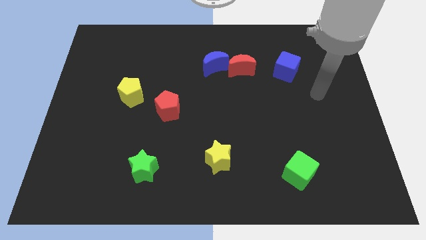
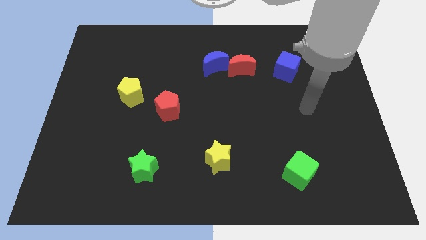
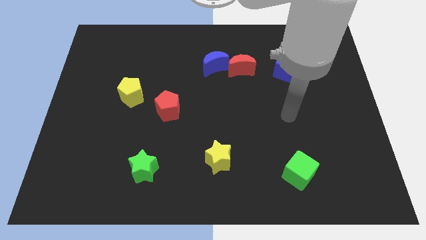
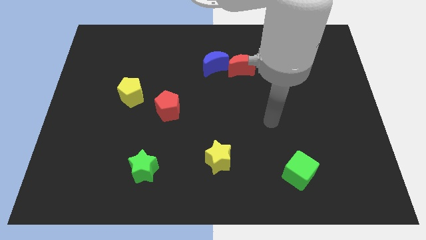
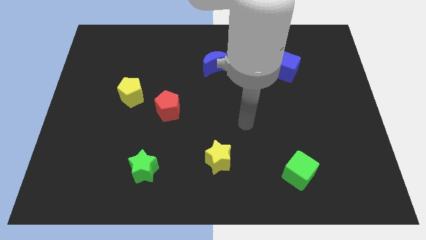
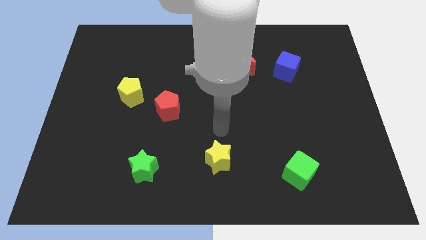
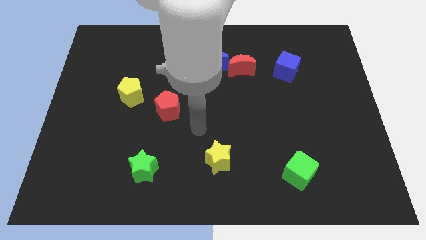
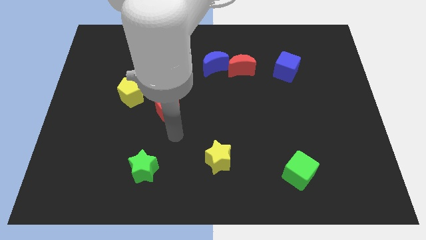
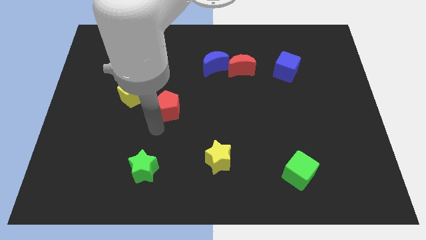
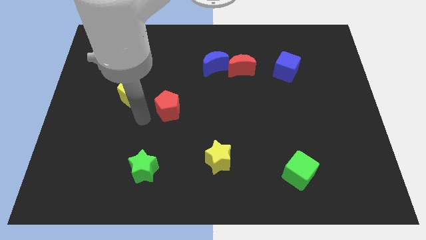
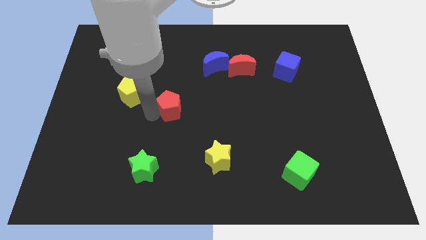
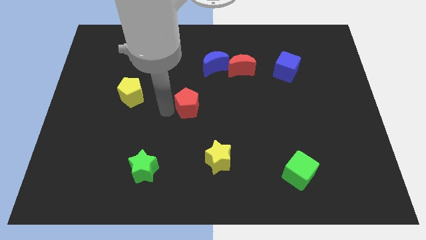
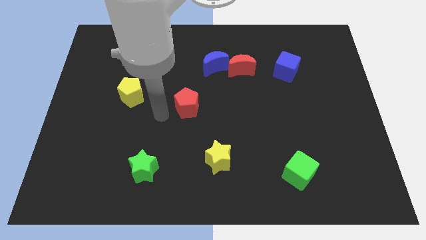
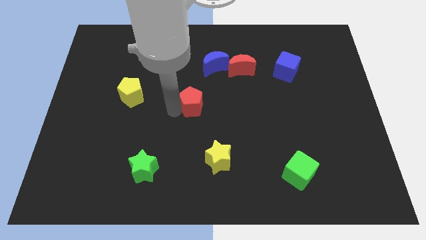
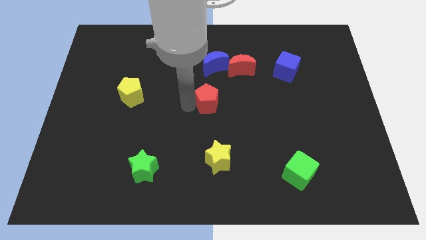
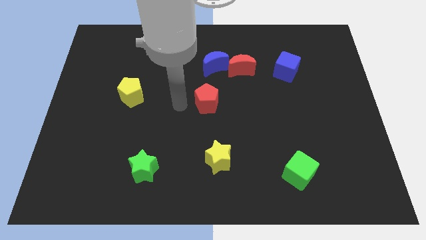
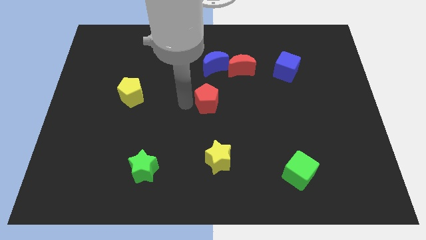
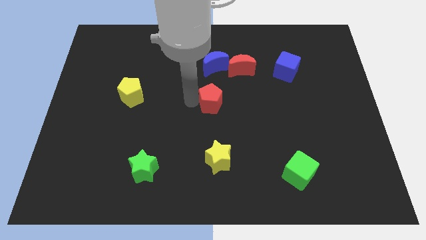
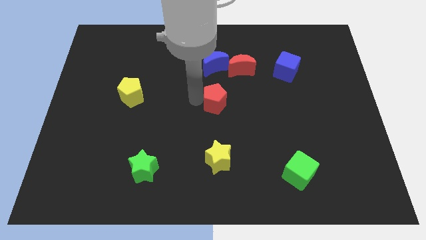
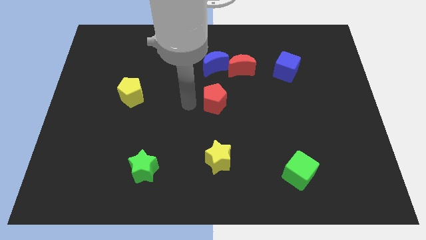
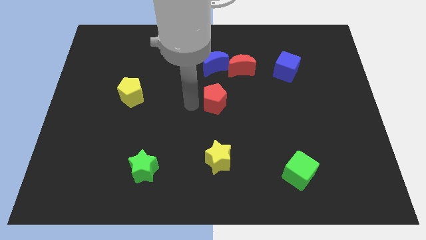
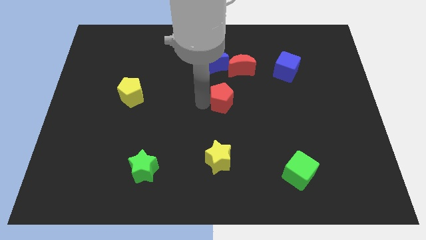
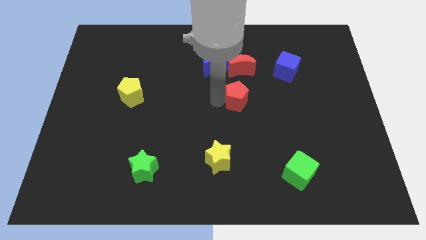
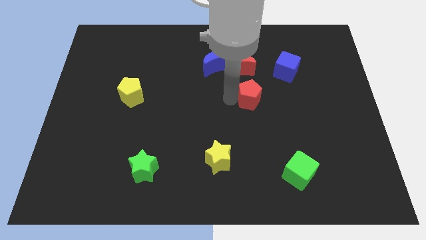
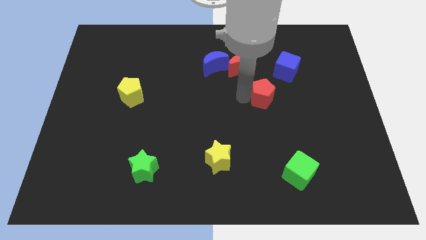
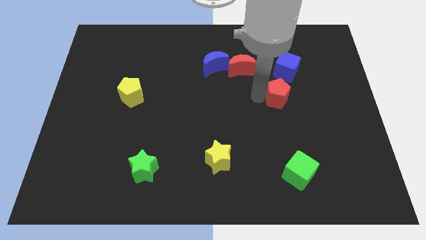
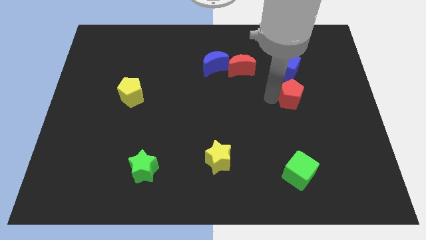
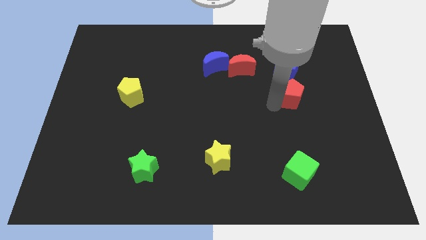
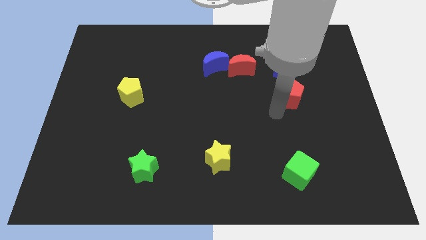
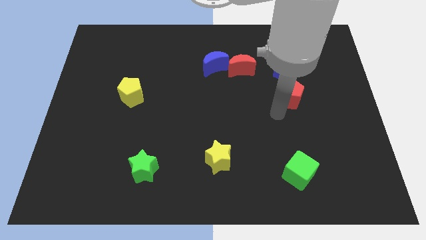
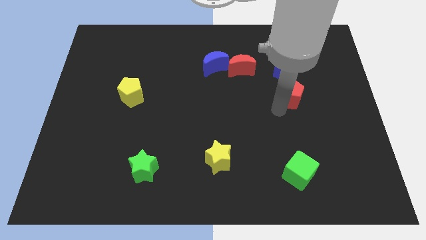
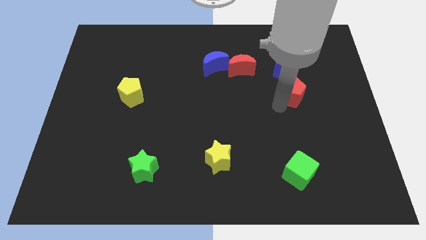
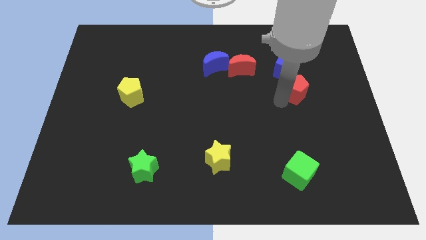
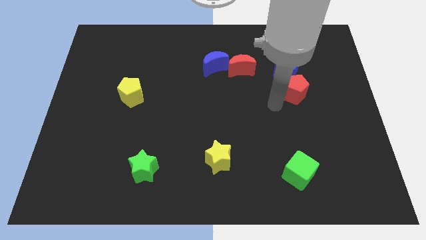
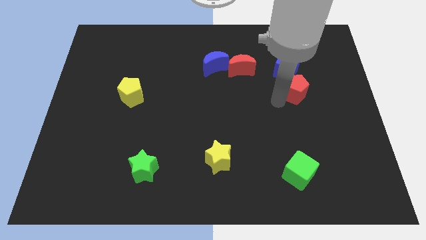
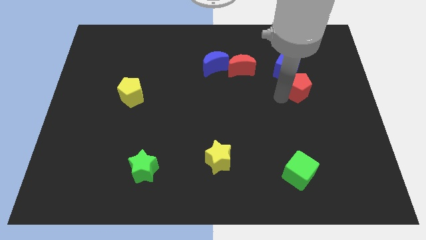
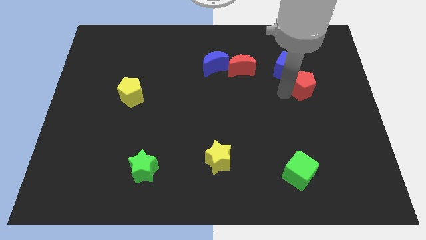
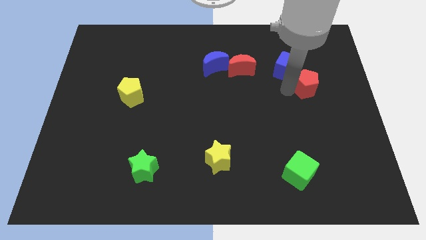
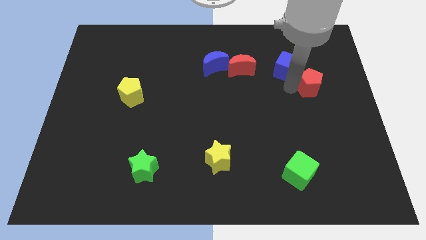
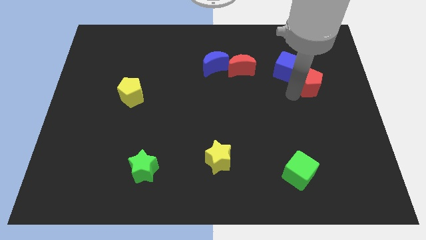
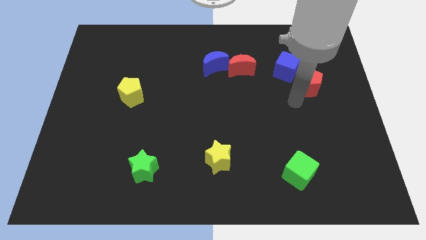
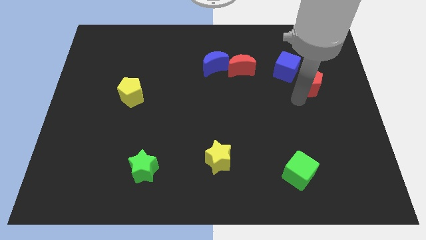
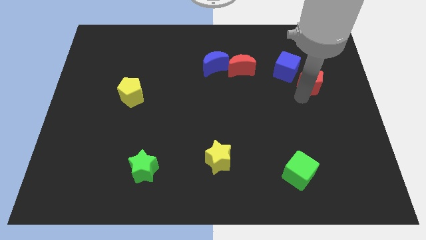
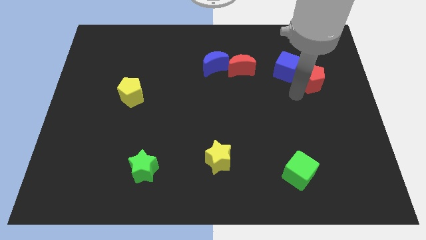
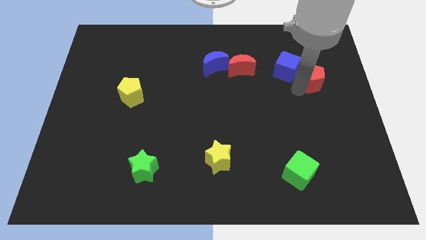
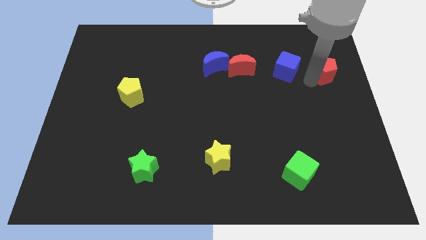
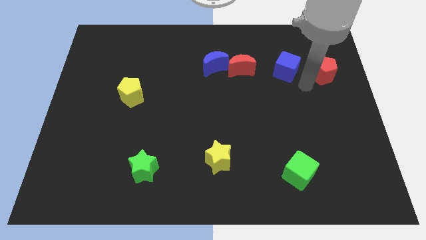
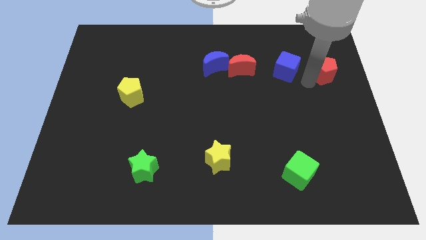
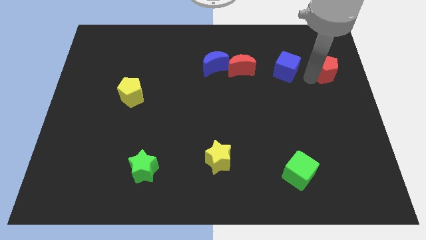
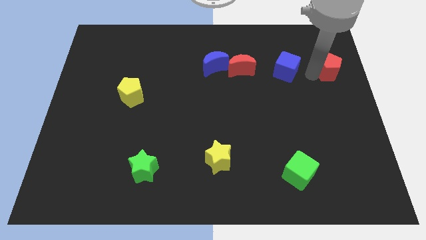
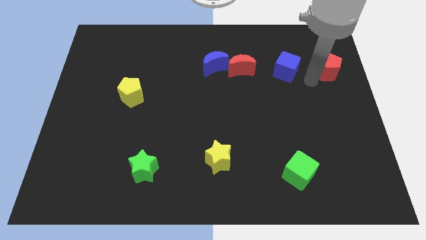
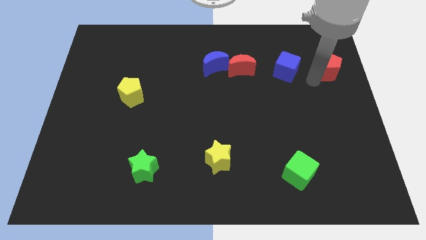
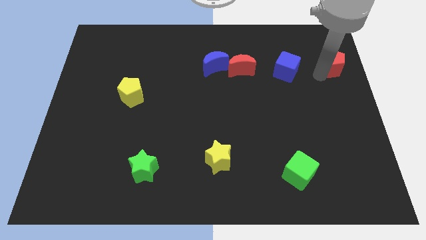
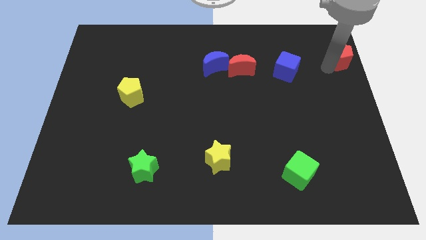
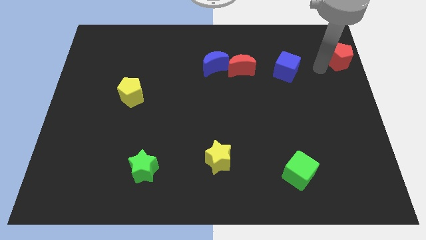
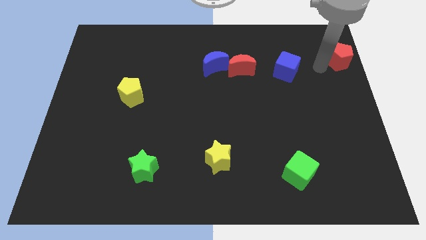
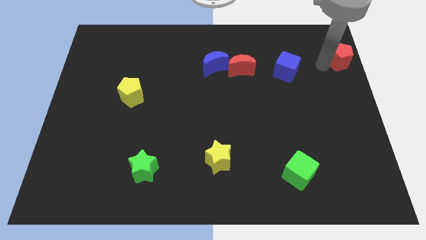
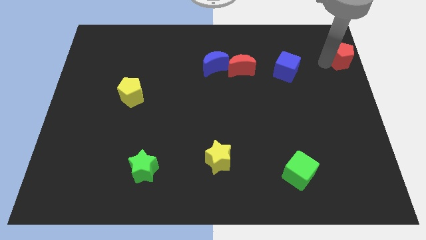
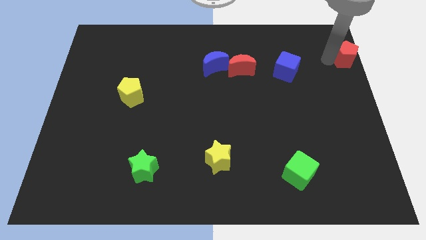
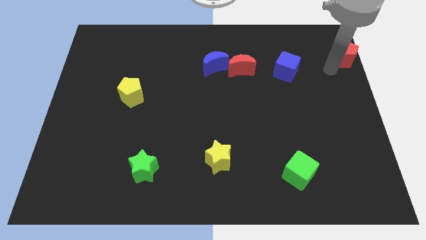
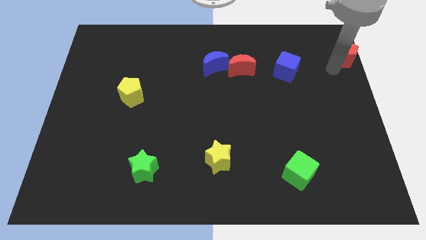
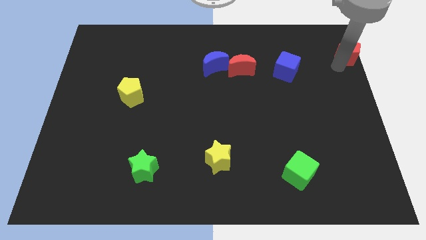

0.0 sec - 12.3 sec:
put the red pentagon to the upper right corner
